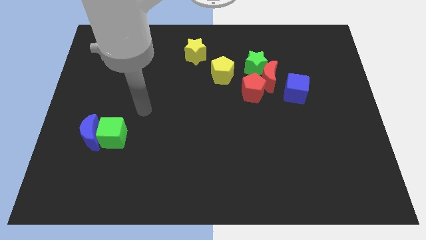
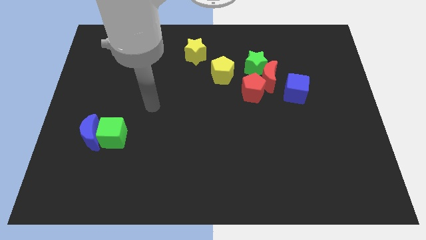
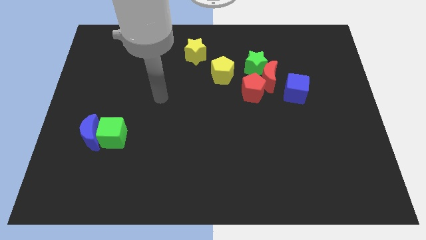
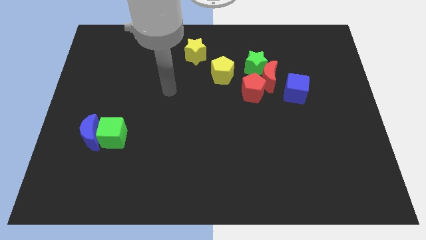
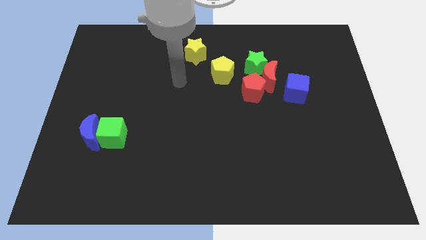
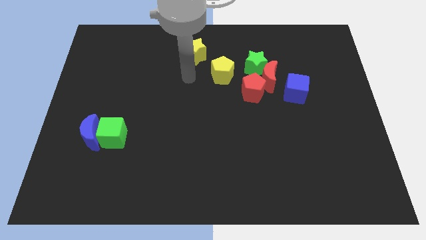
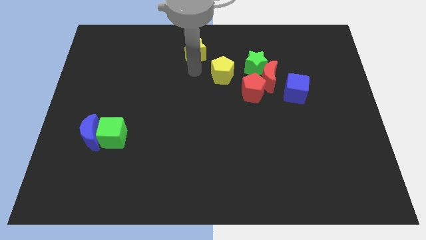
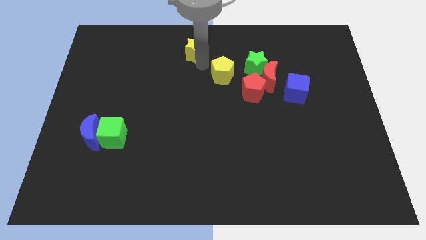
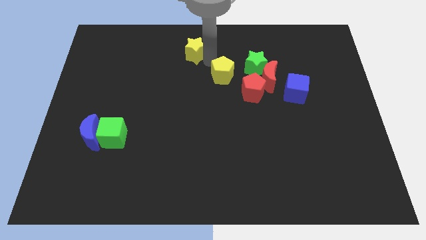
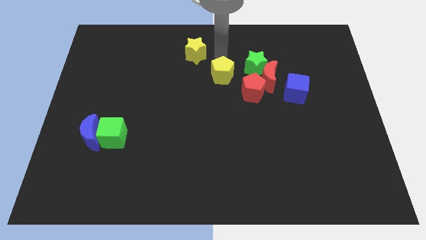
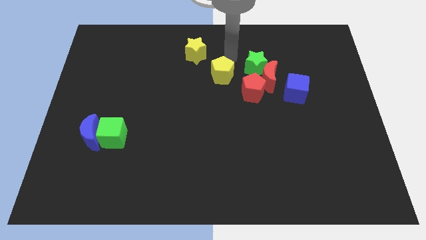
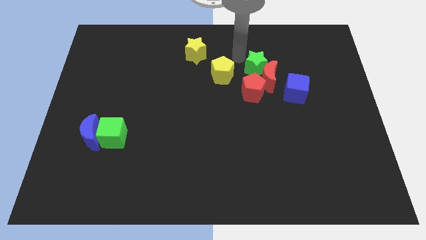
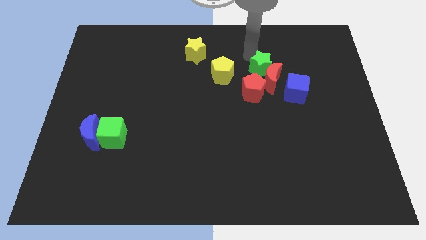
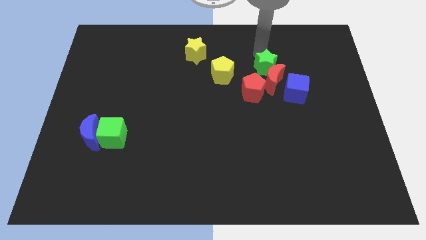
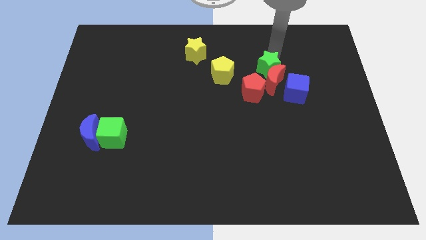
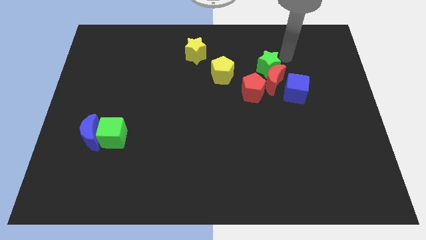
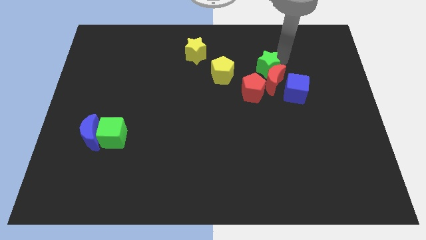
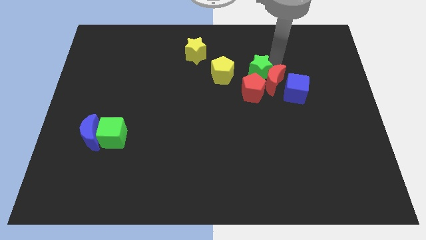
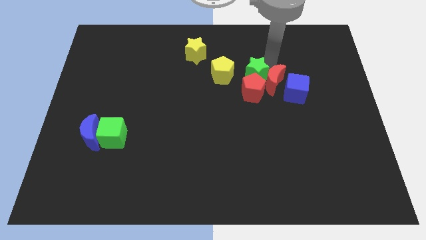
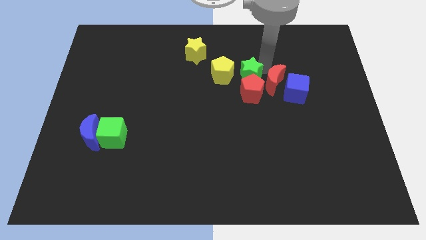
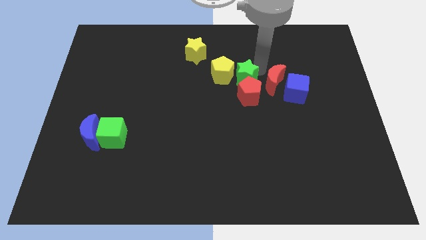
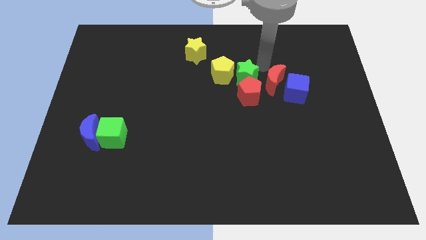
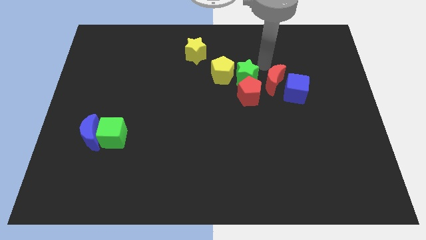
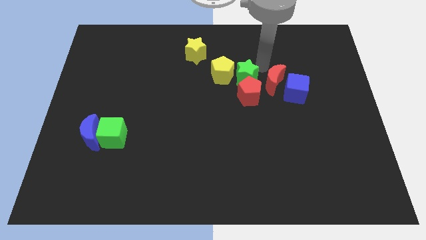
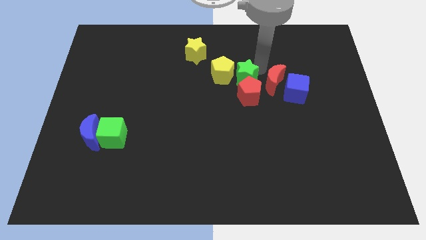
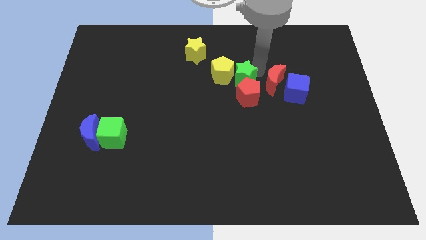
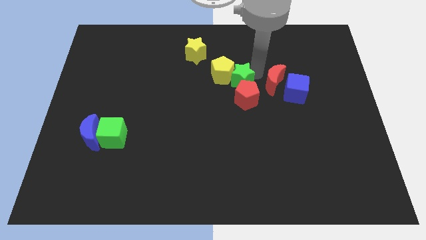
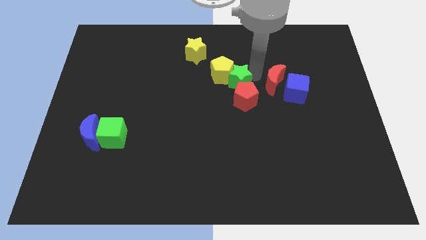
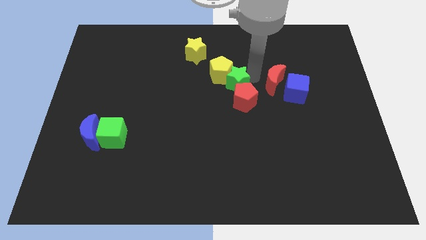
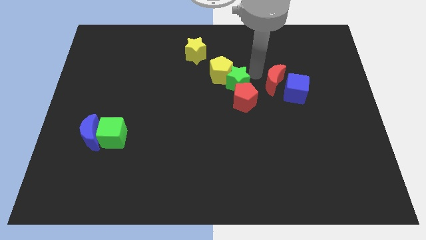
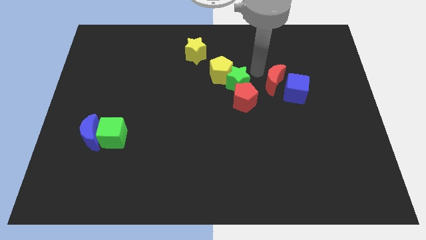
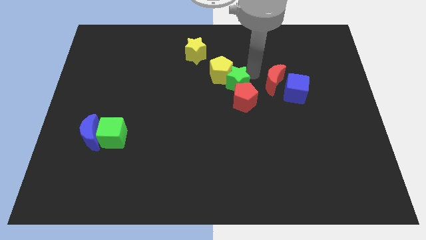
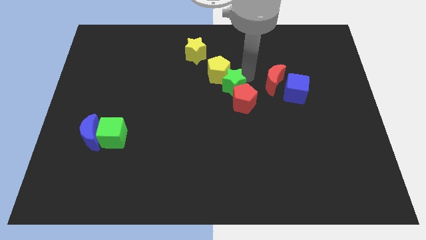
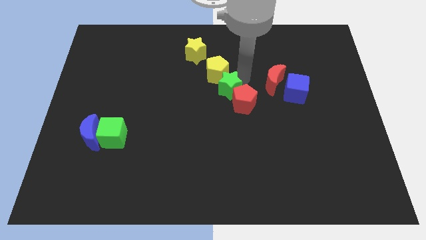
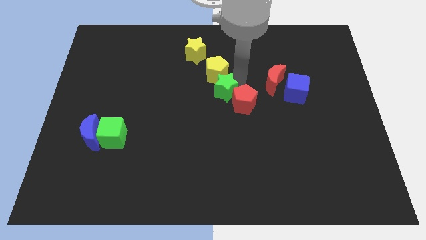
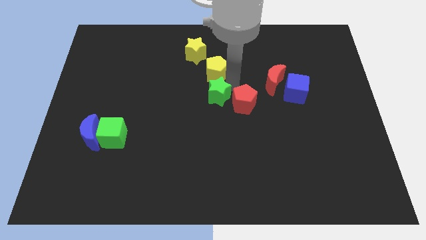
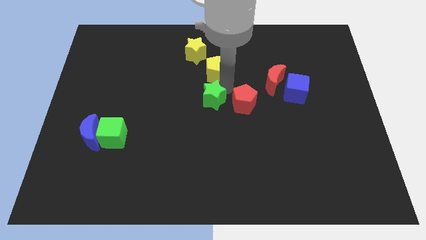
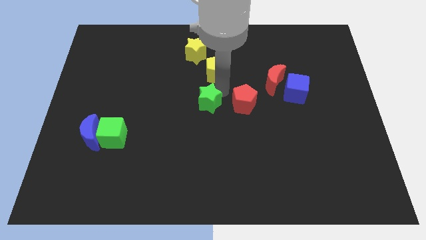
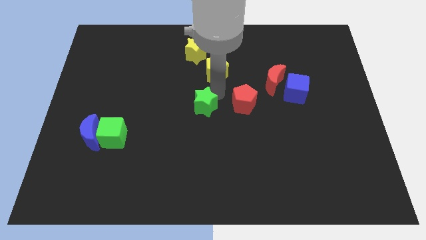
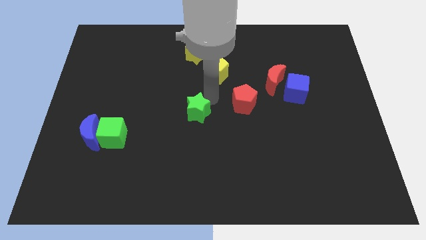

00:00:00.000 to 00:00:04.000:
move the green star downwards and to the left

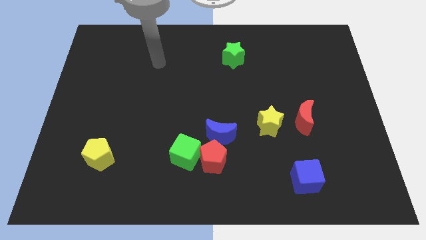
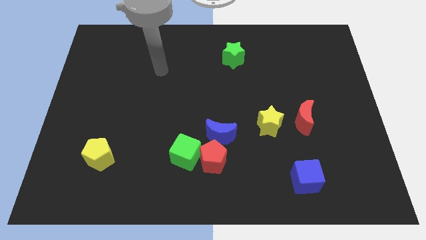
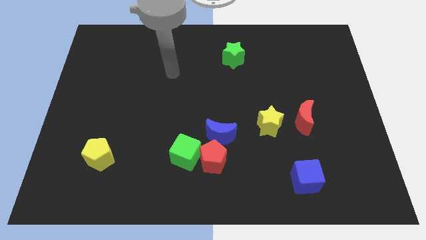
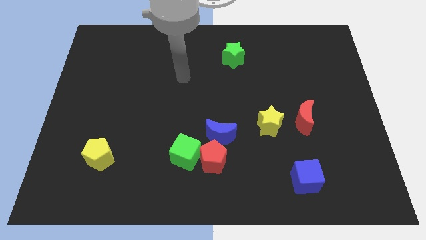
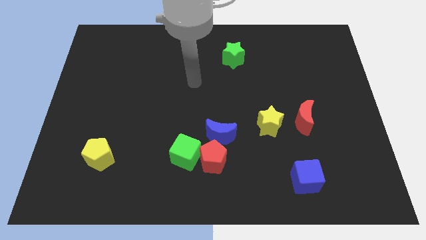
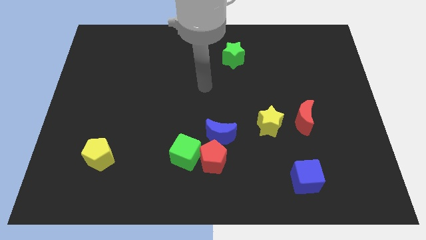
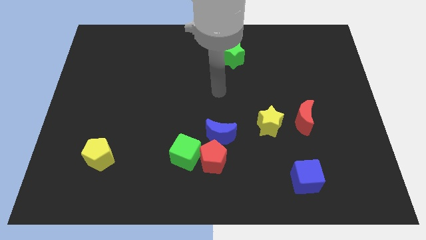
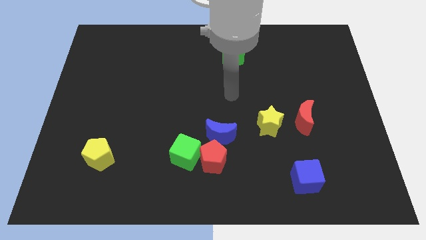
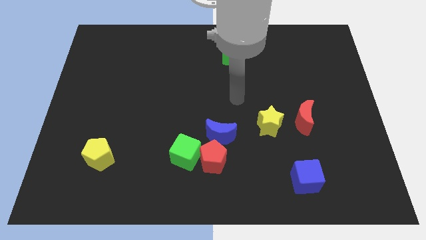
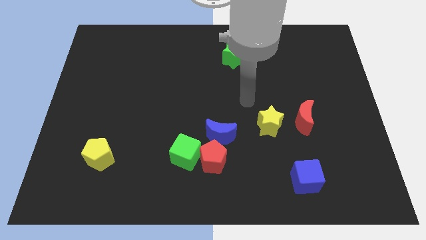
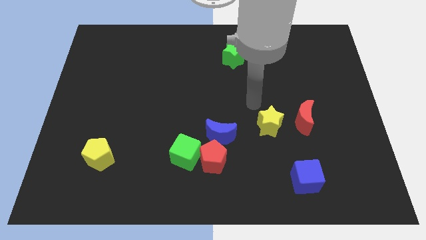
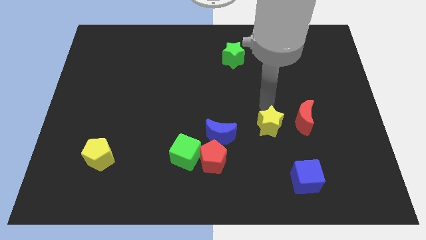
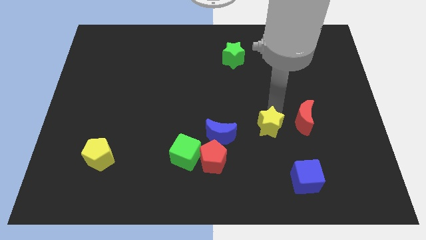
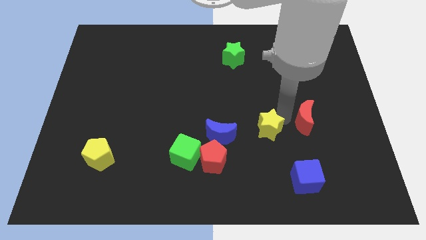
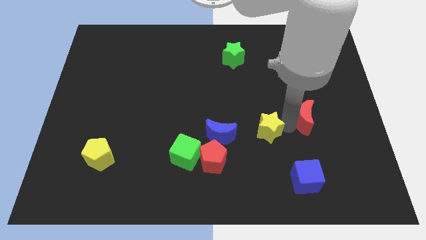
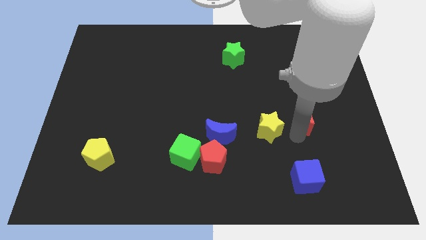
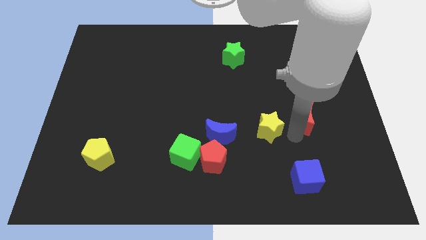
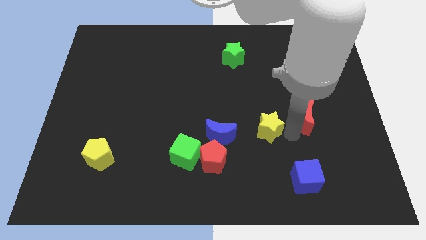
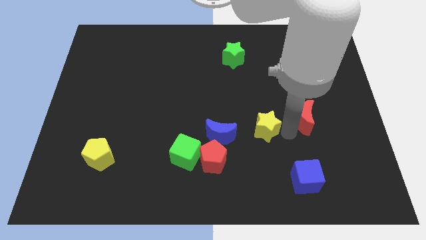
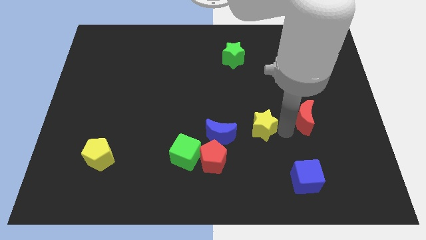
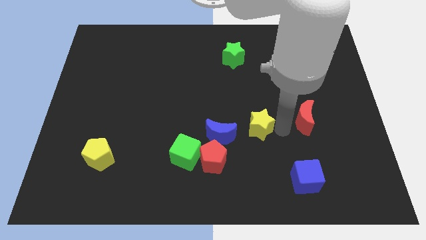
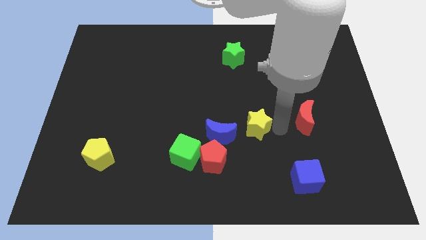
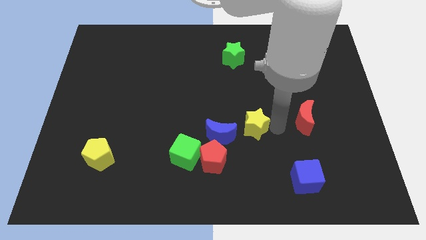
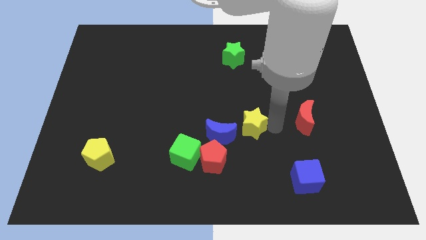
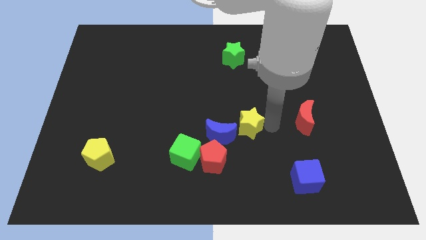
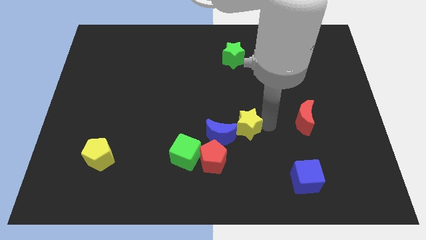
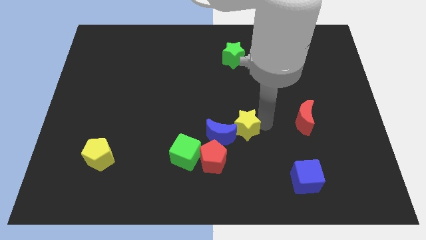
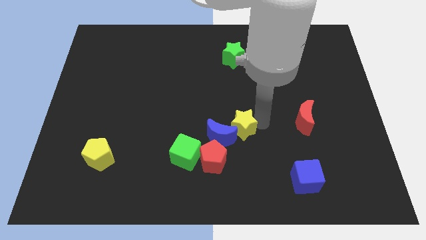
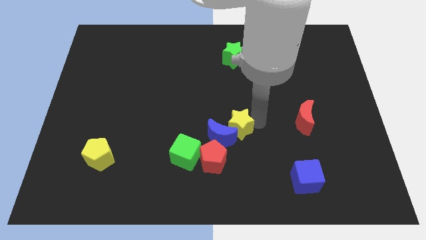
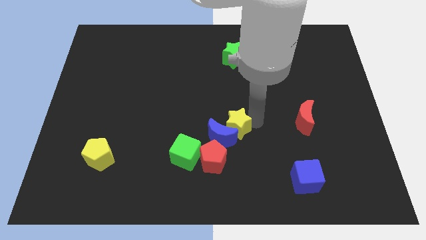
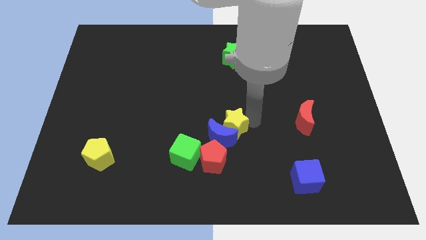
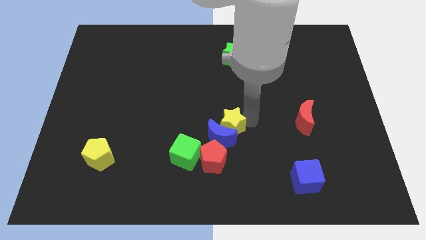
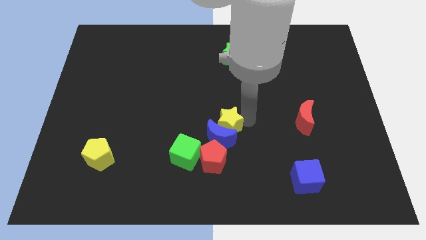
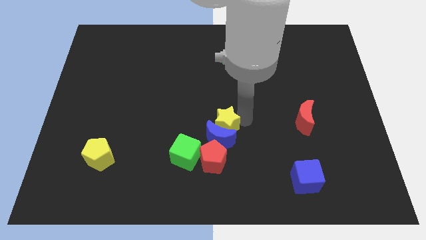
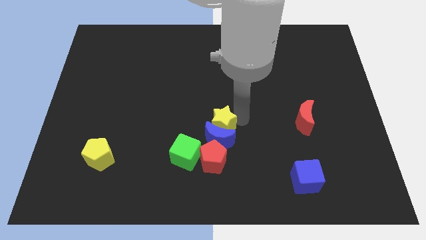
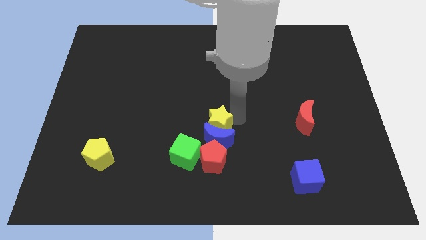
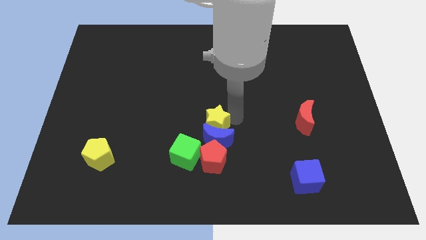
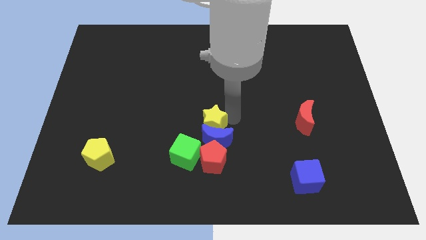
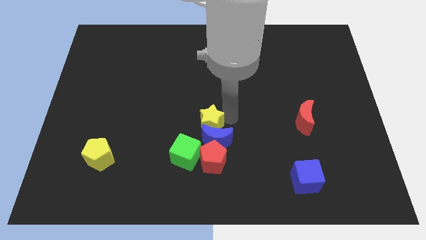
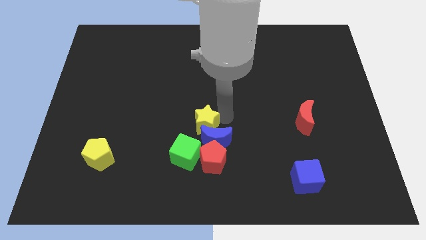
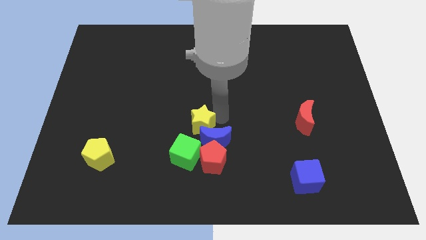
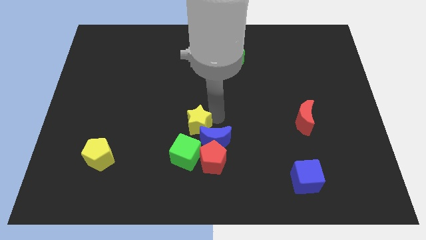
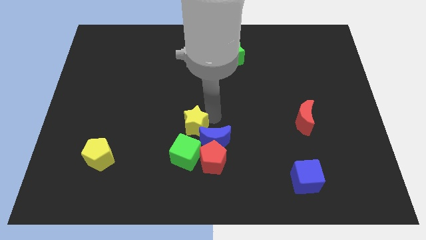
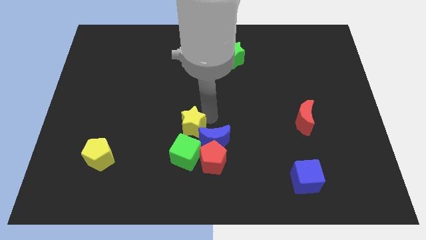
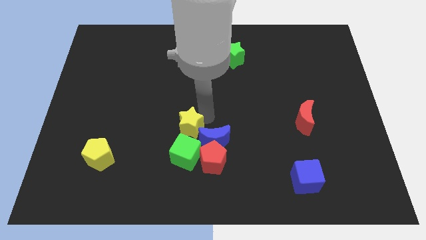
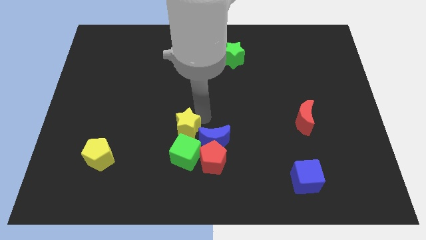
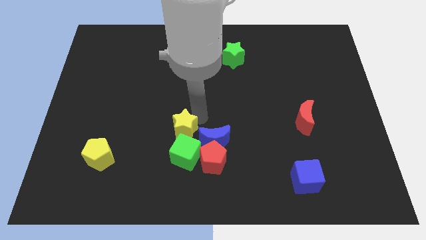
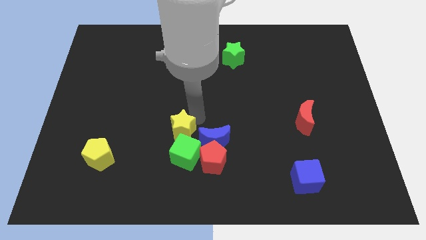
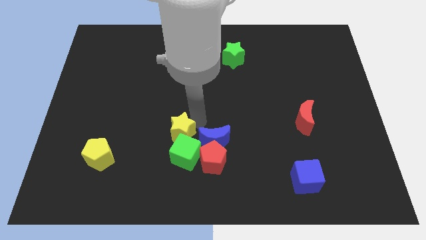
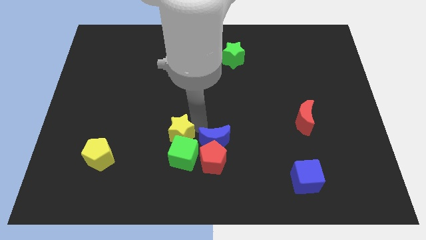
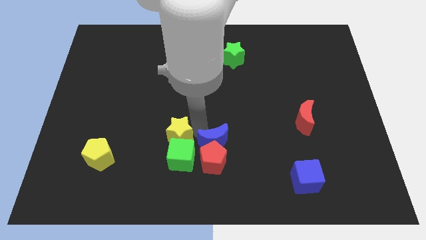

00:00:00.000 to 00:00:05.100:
slide the yellow star left
